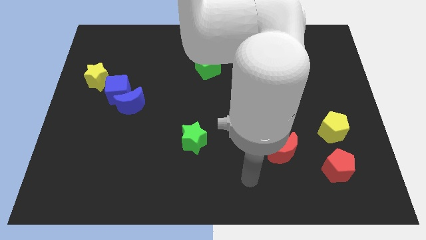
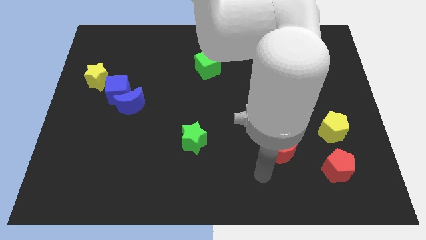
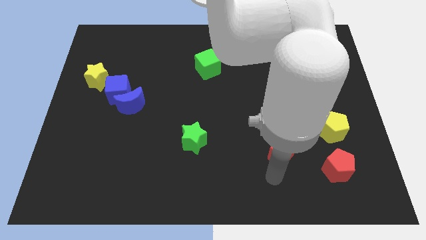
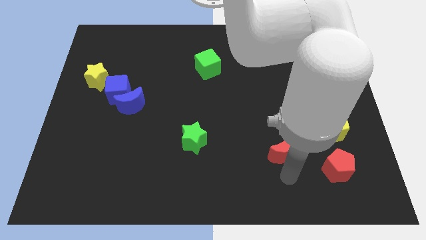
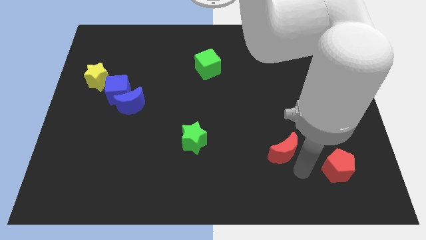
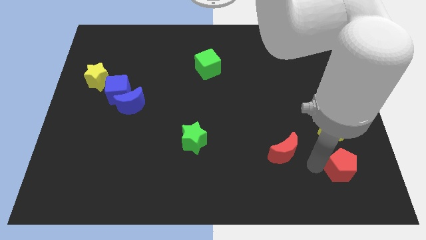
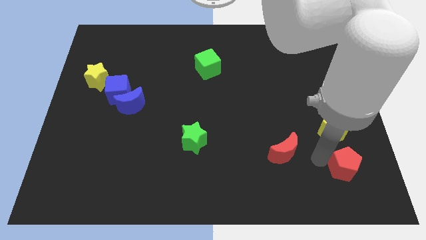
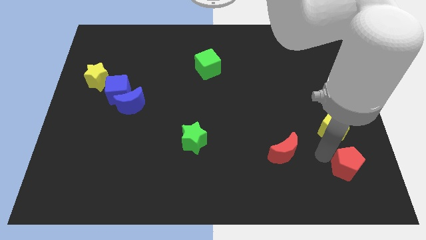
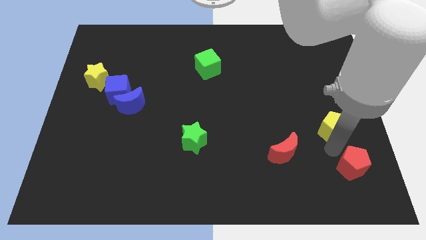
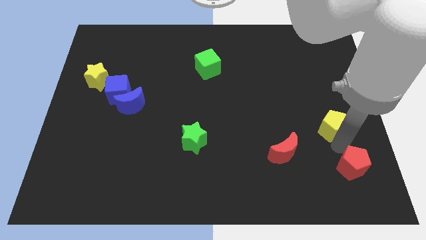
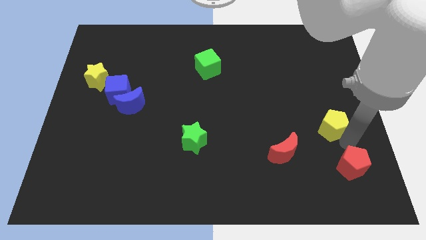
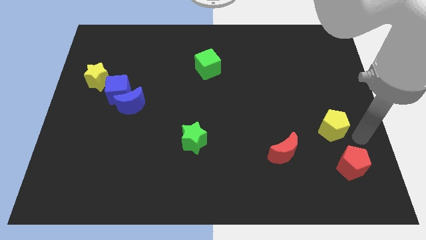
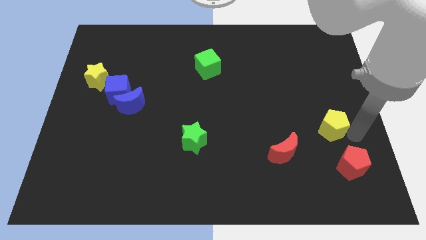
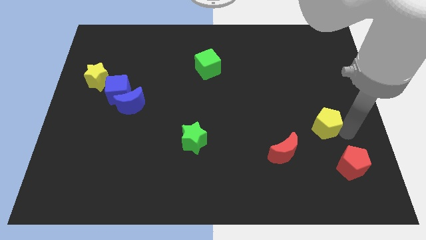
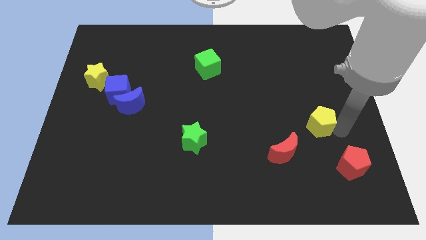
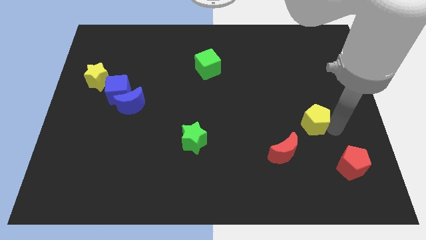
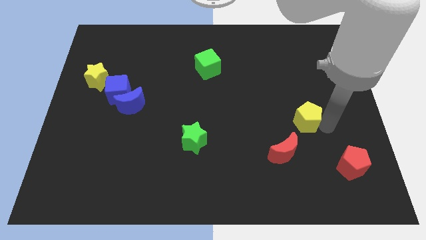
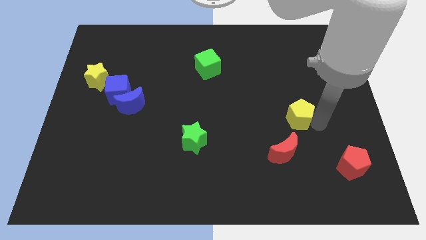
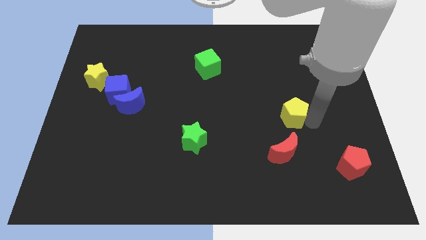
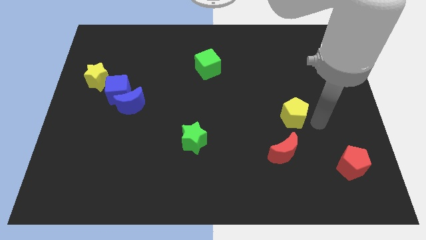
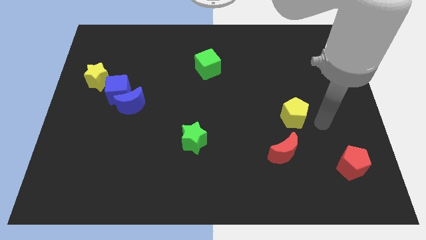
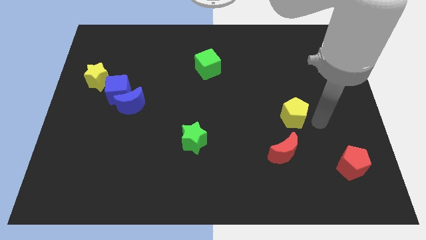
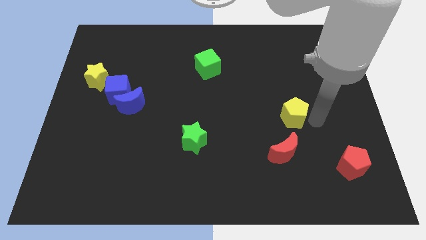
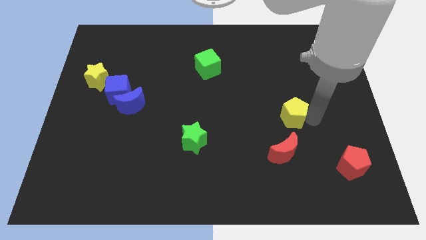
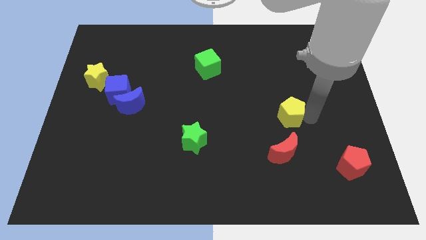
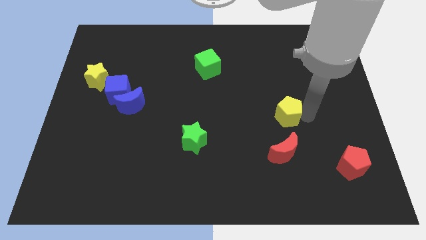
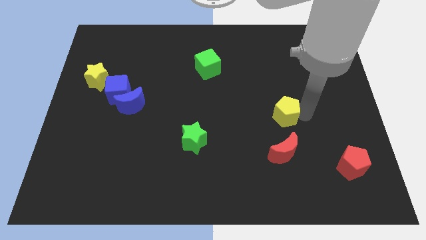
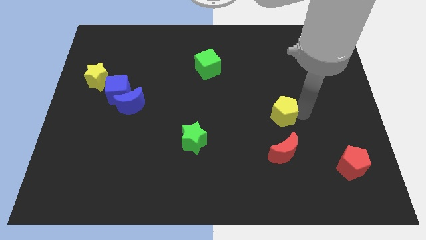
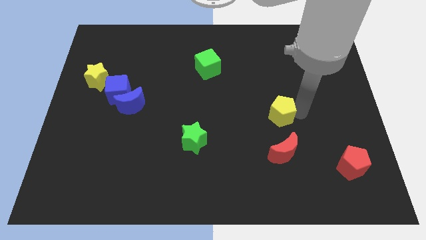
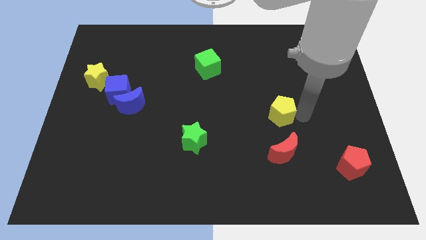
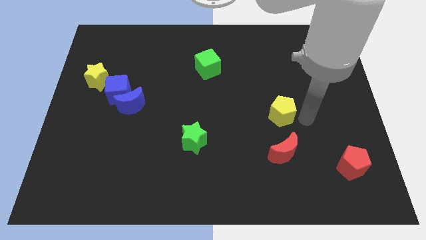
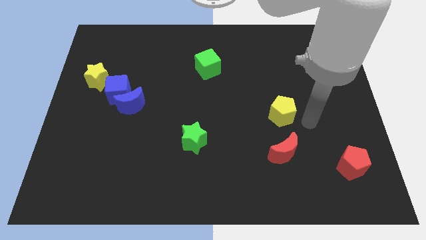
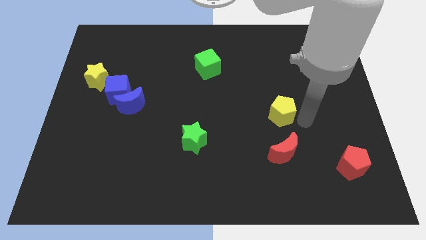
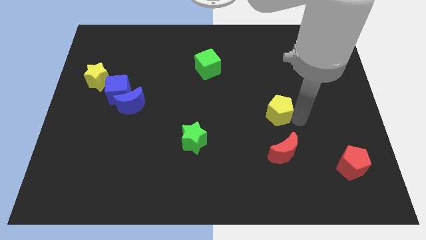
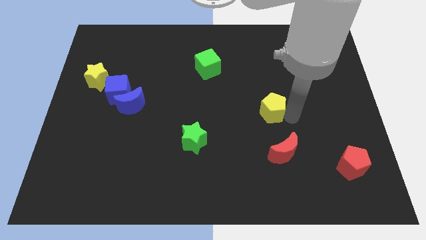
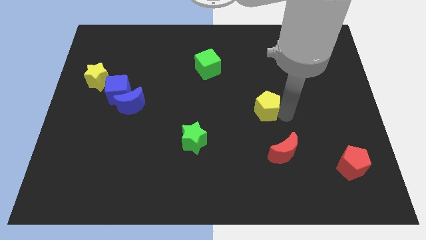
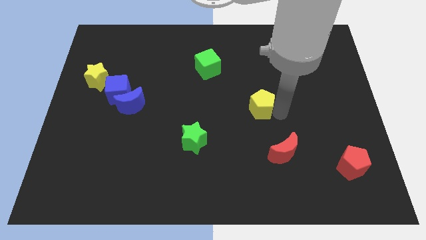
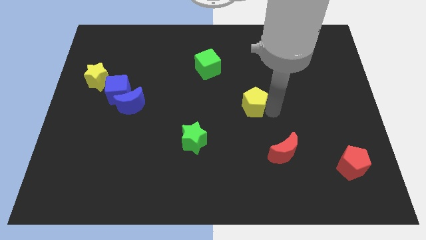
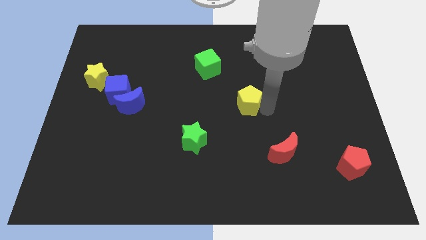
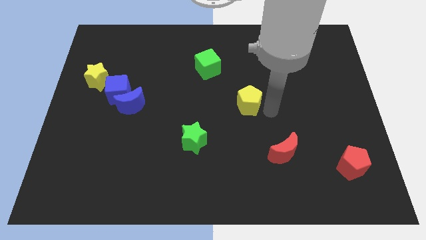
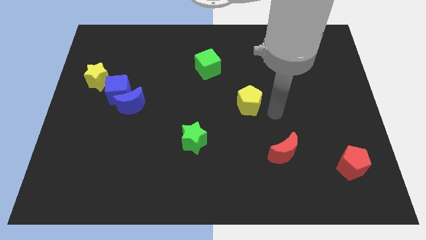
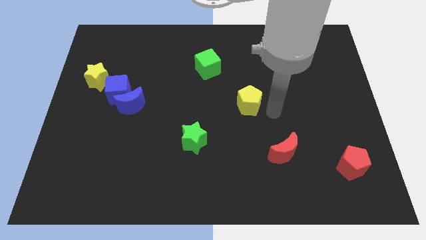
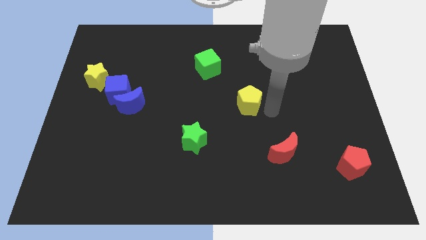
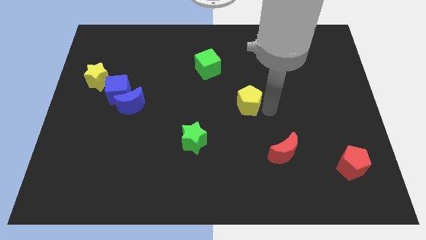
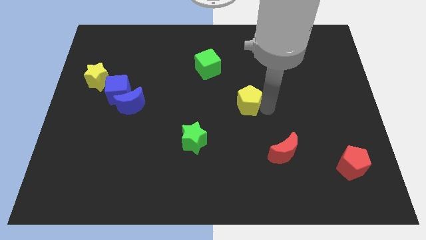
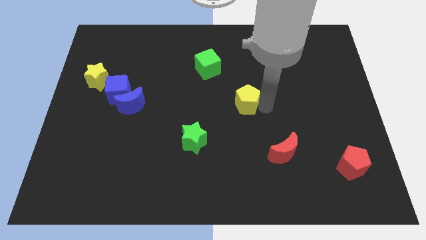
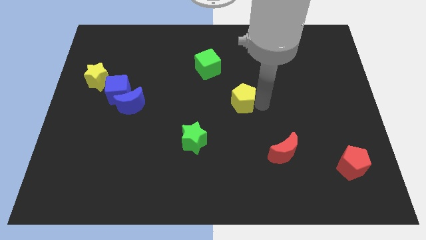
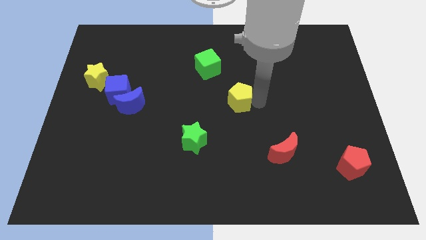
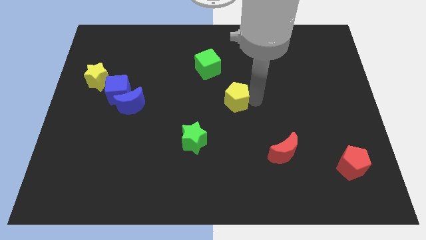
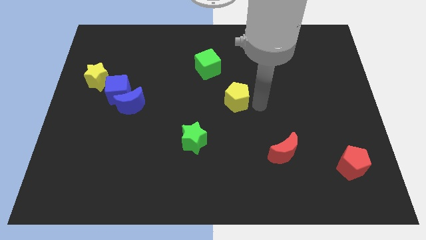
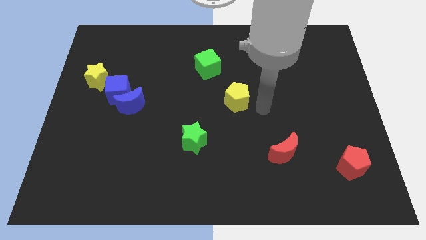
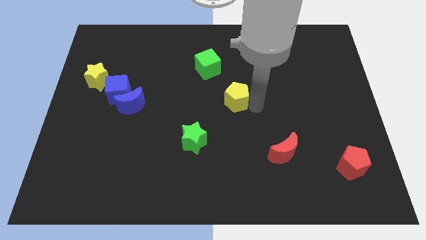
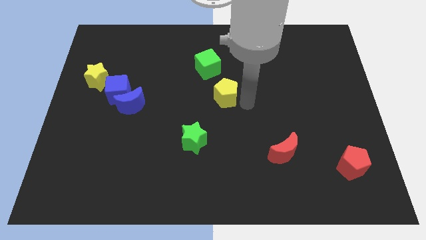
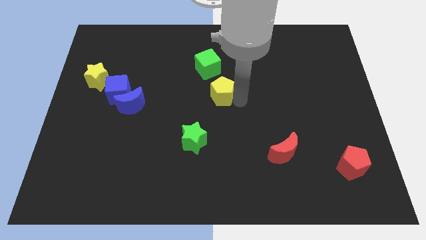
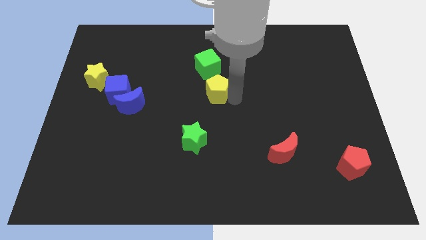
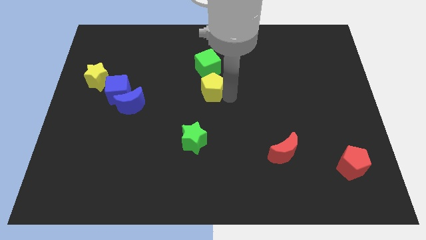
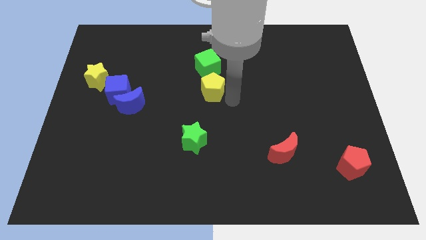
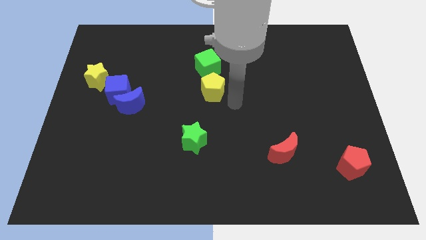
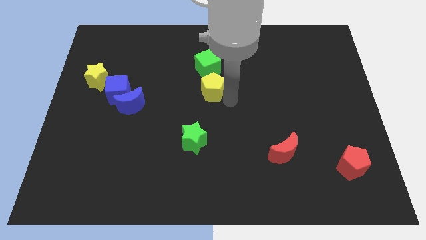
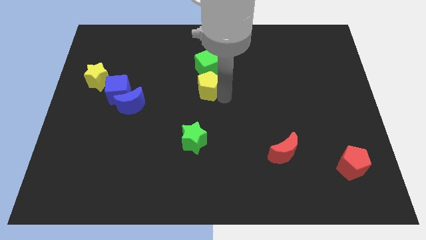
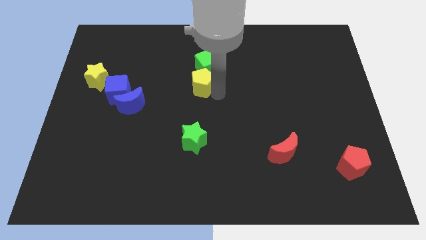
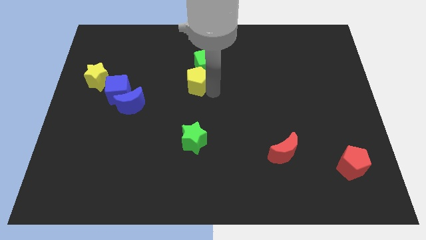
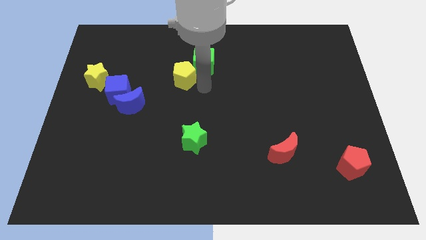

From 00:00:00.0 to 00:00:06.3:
move the yellow pentagon to the left side of the green cube

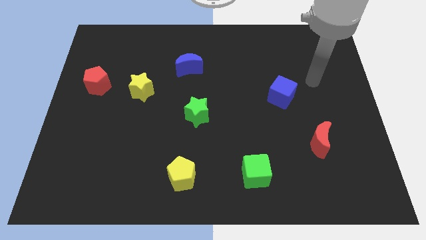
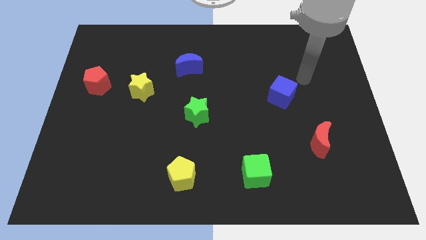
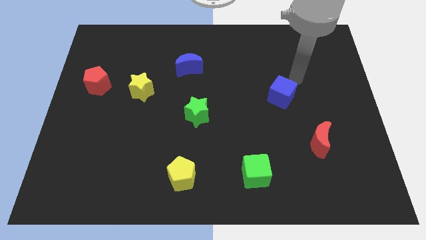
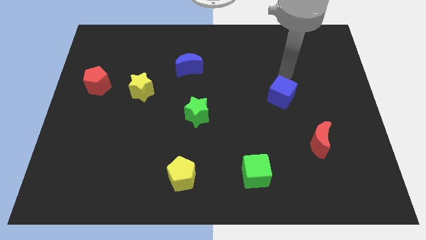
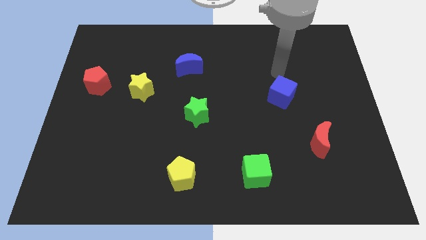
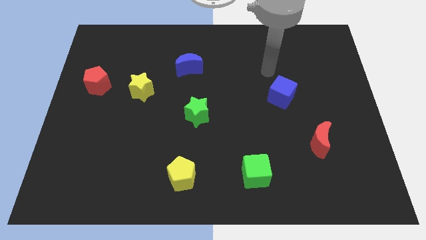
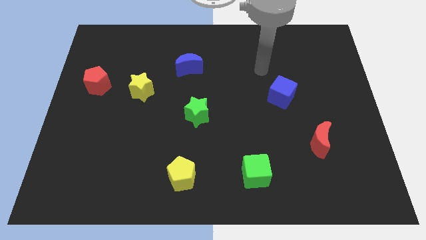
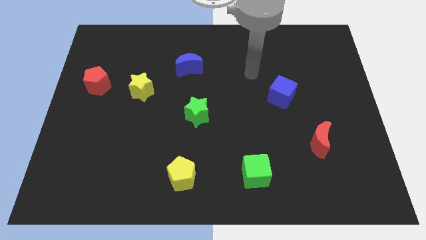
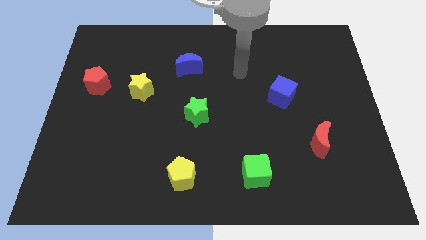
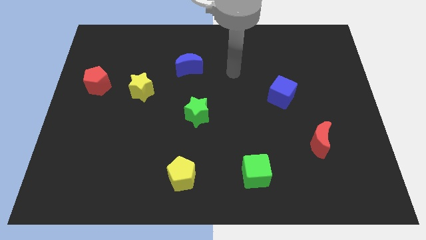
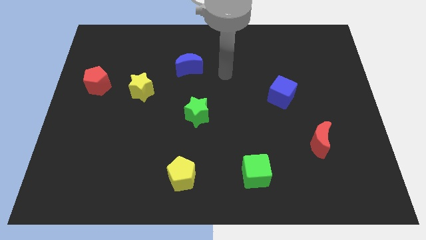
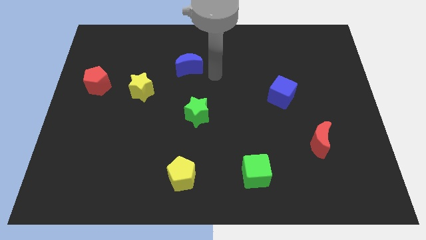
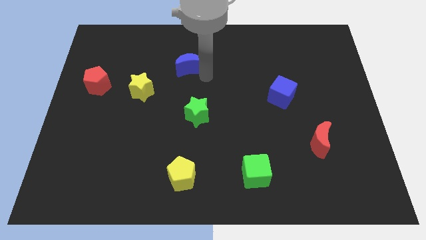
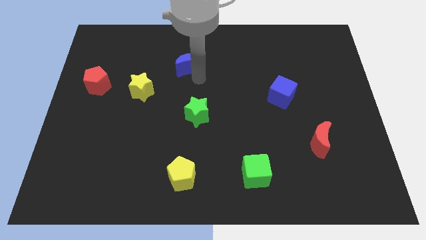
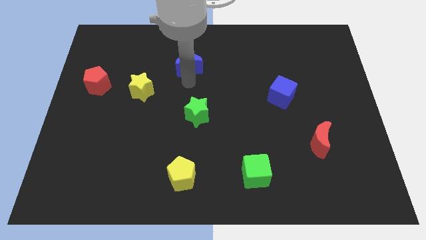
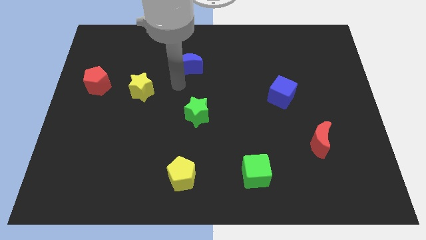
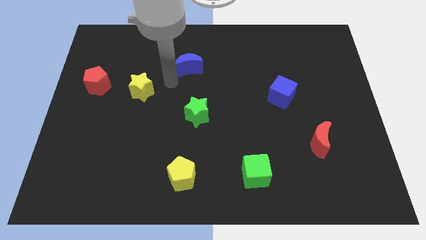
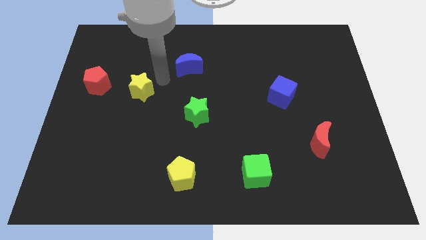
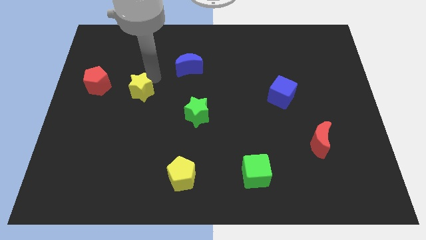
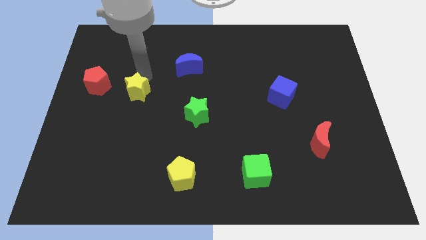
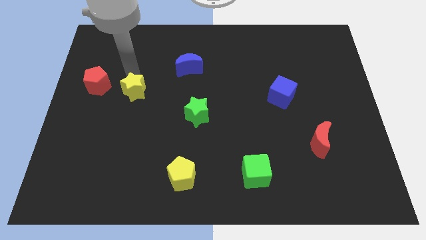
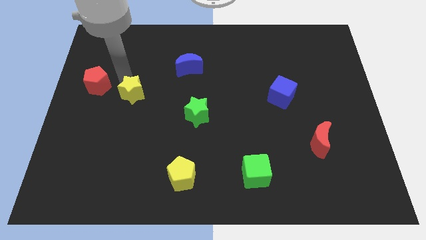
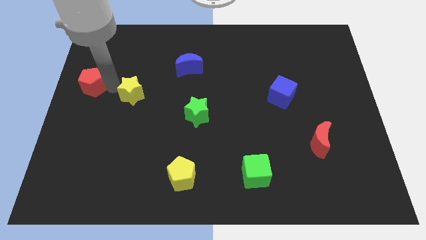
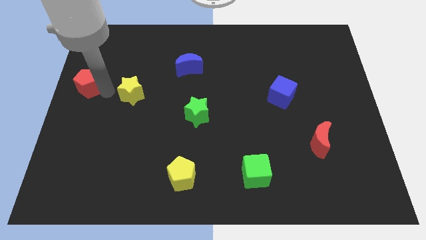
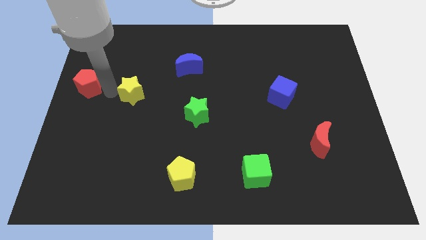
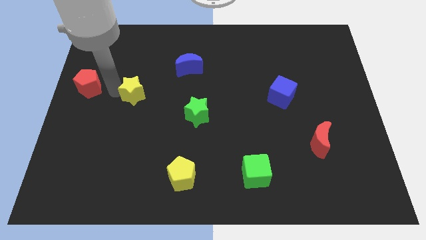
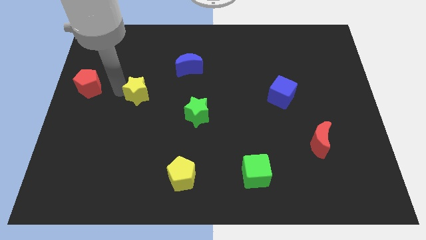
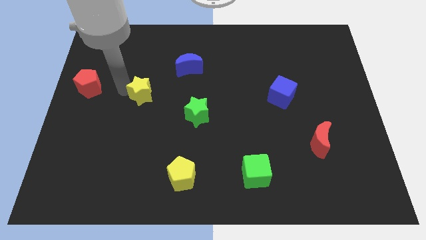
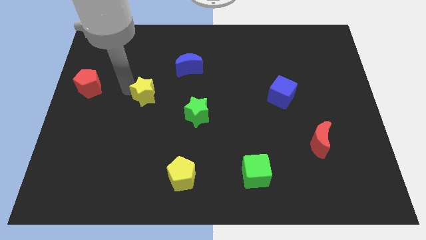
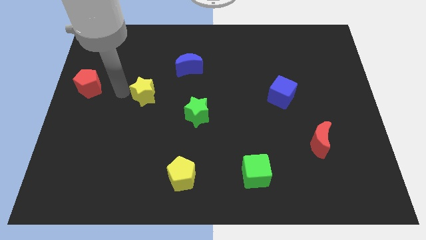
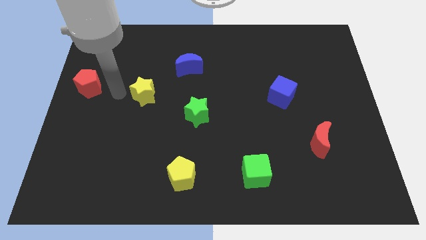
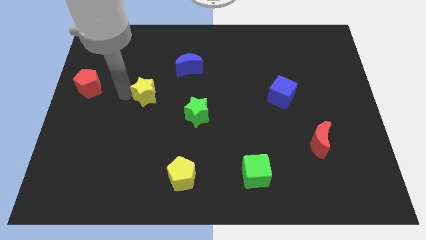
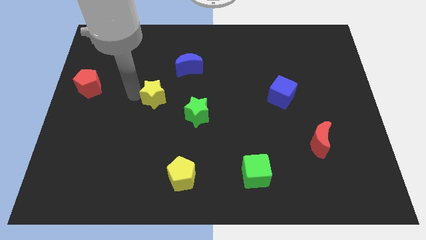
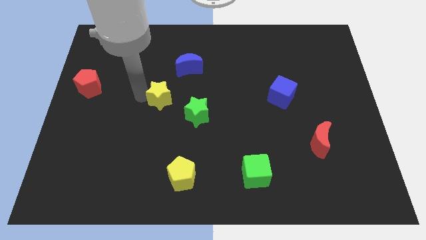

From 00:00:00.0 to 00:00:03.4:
slide the yellow star diagonally up and to the left of the green star
